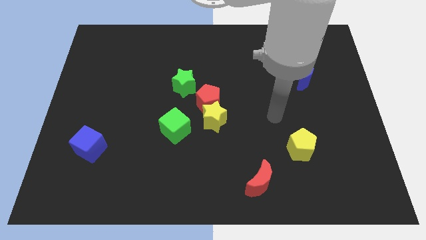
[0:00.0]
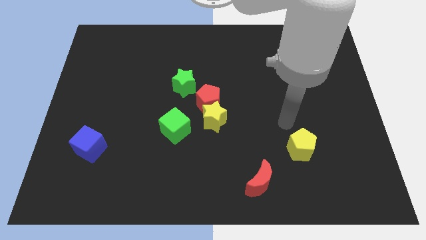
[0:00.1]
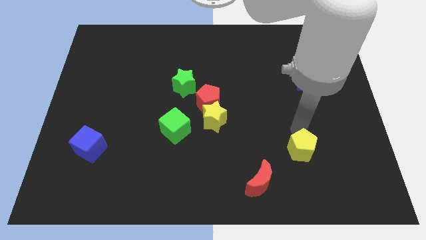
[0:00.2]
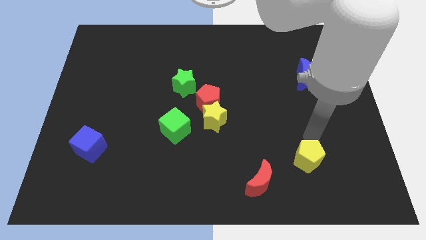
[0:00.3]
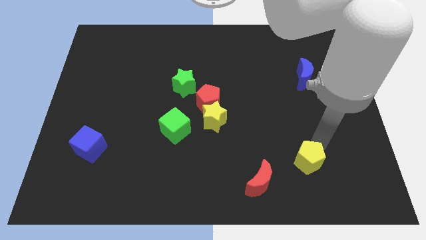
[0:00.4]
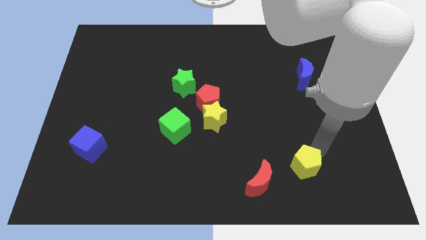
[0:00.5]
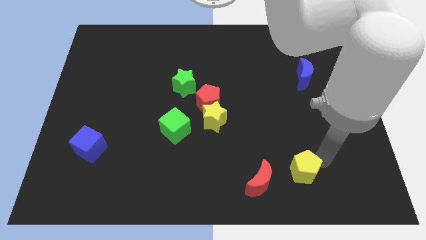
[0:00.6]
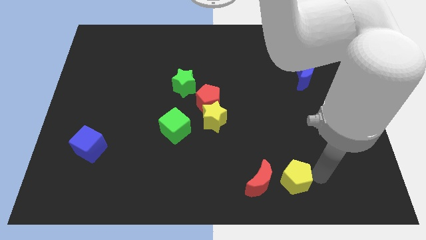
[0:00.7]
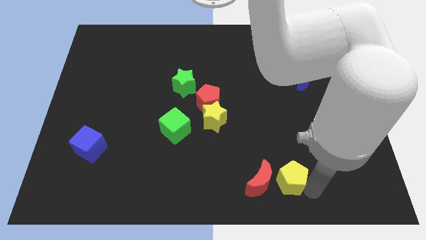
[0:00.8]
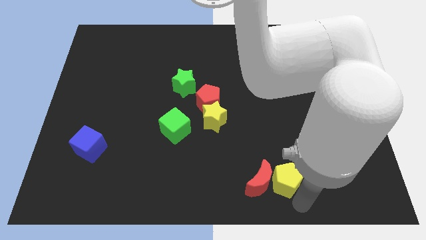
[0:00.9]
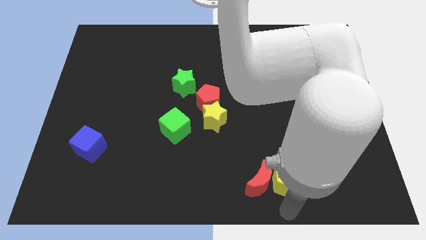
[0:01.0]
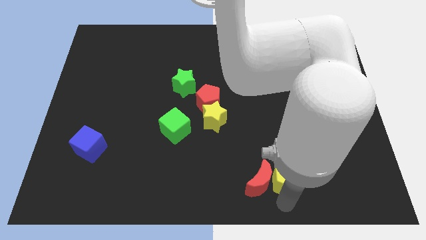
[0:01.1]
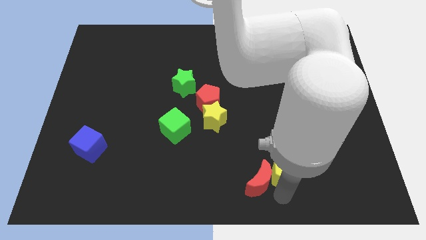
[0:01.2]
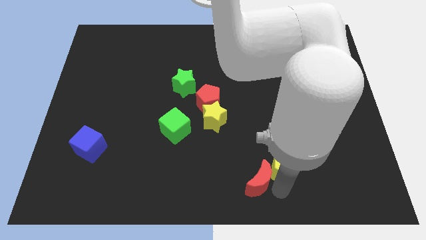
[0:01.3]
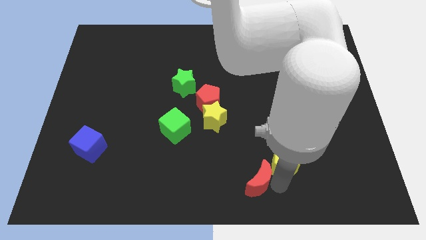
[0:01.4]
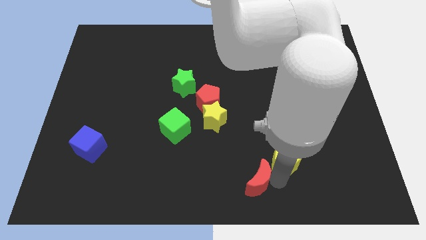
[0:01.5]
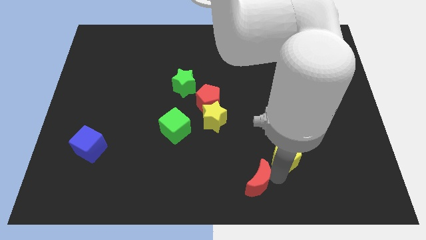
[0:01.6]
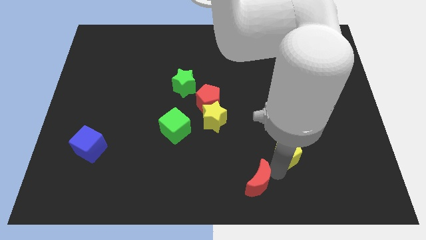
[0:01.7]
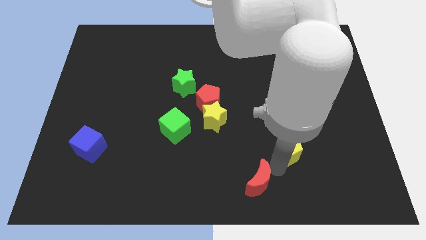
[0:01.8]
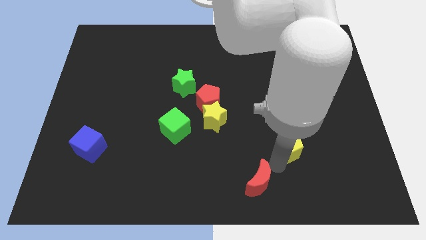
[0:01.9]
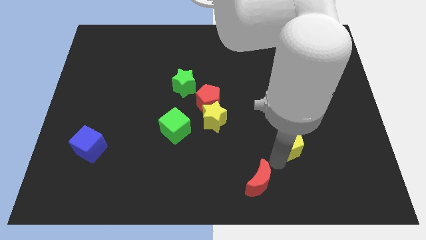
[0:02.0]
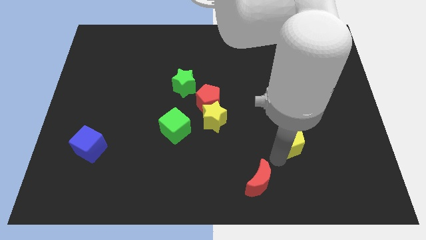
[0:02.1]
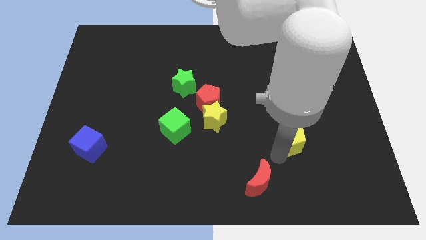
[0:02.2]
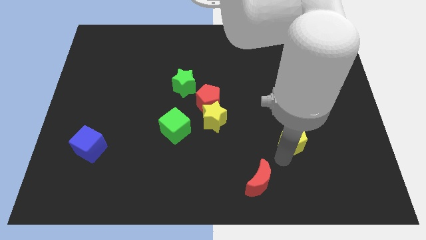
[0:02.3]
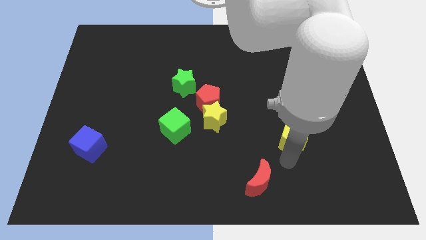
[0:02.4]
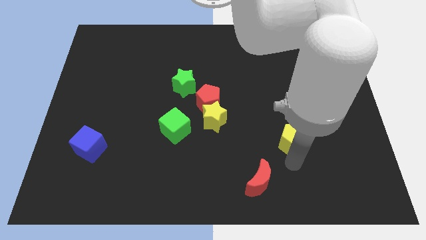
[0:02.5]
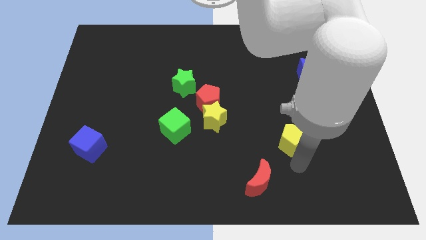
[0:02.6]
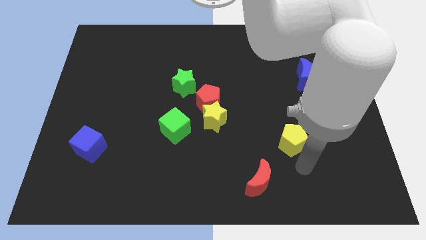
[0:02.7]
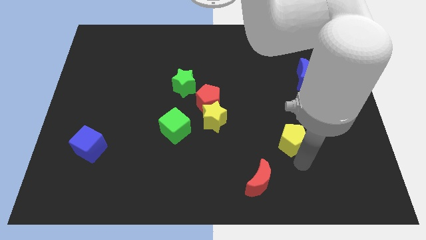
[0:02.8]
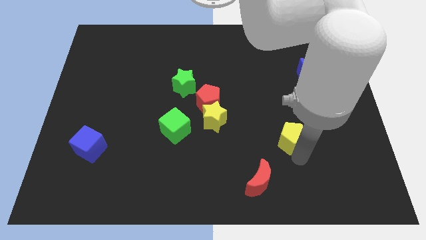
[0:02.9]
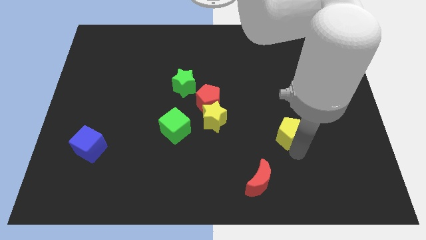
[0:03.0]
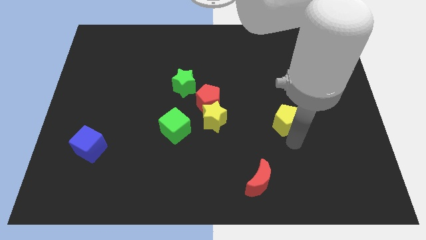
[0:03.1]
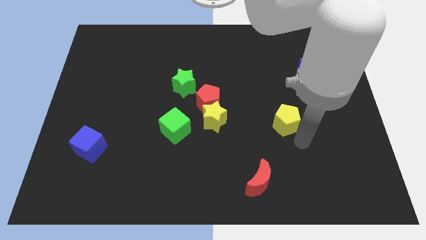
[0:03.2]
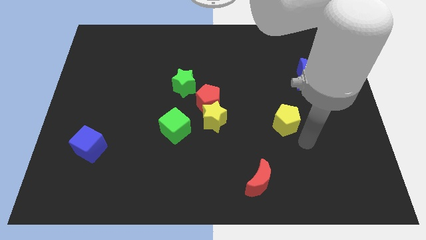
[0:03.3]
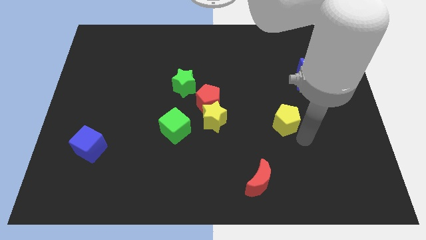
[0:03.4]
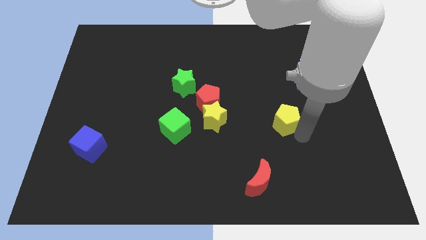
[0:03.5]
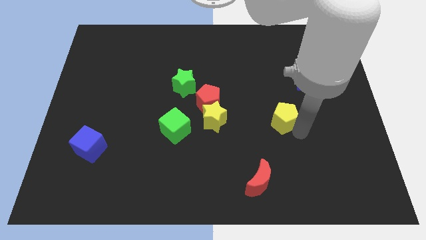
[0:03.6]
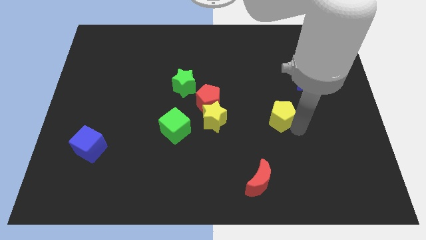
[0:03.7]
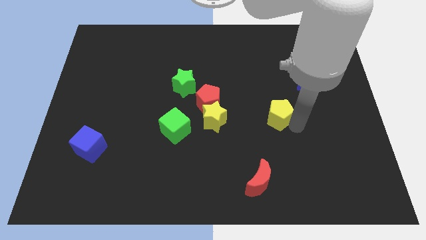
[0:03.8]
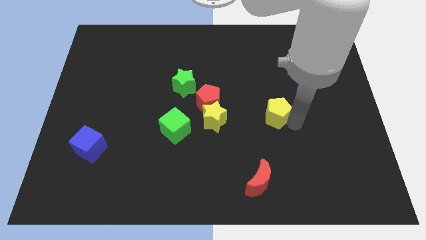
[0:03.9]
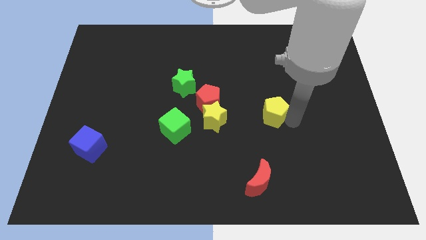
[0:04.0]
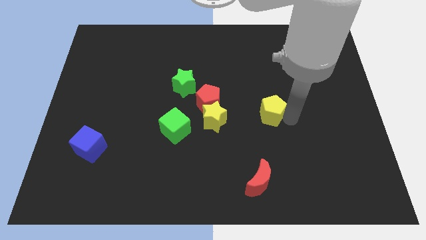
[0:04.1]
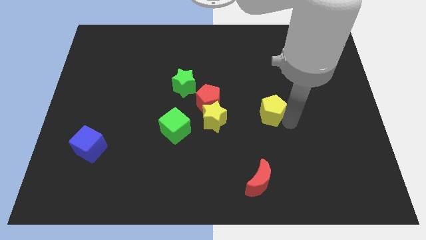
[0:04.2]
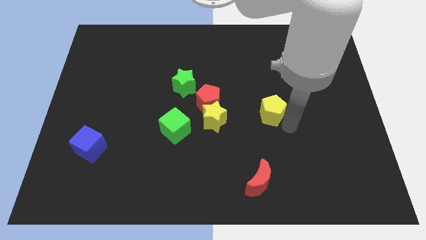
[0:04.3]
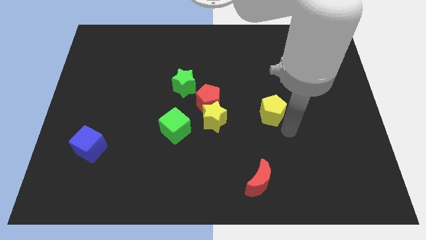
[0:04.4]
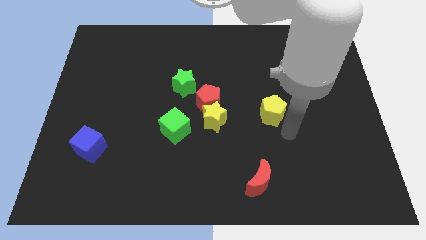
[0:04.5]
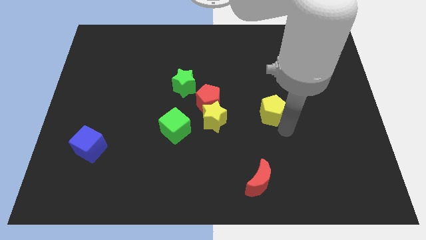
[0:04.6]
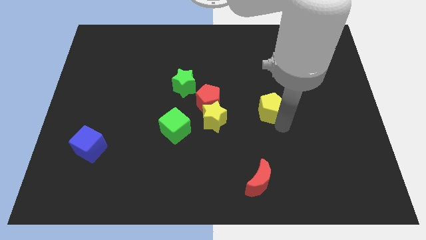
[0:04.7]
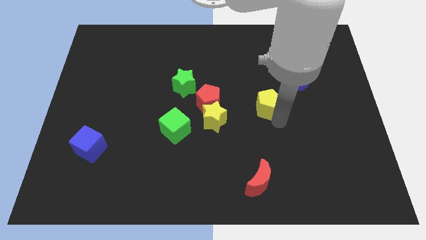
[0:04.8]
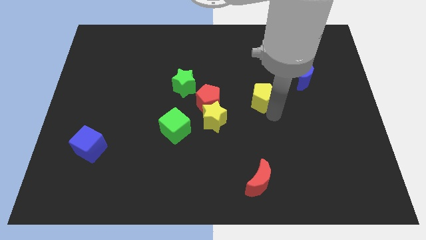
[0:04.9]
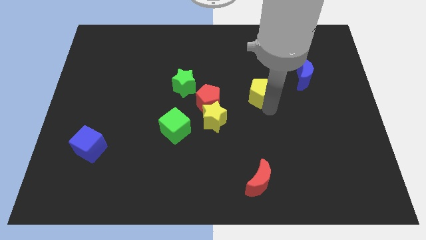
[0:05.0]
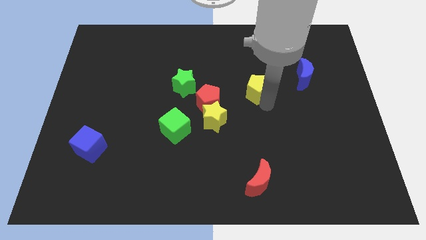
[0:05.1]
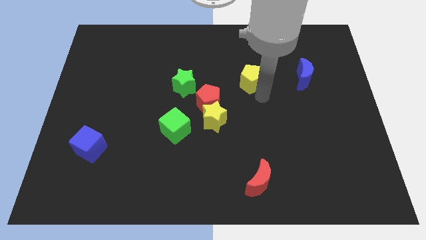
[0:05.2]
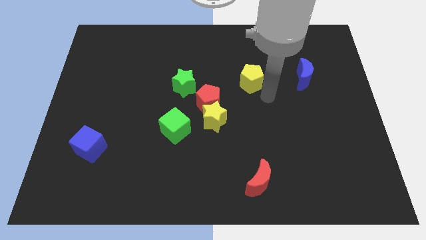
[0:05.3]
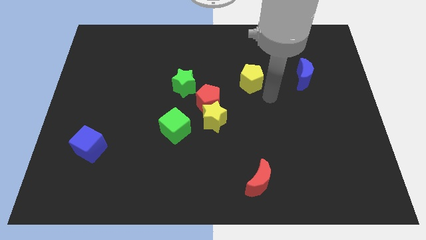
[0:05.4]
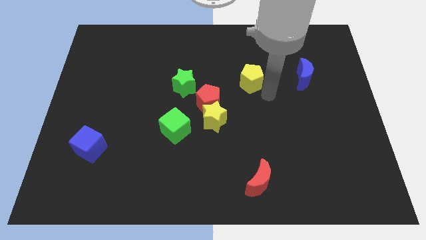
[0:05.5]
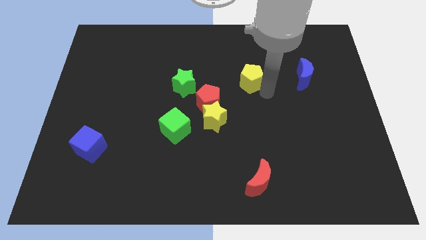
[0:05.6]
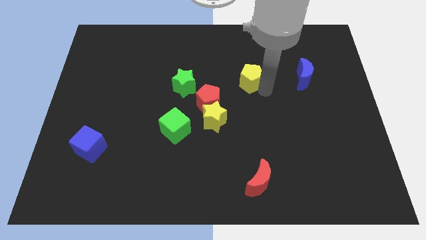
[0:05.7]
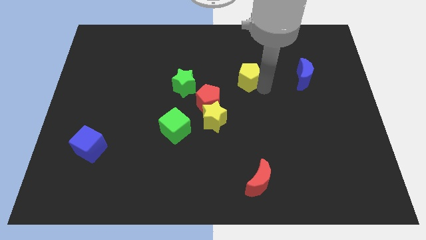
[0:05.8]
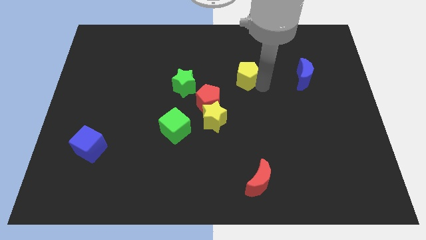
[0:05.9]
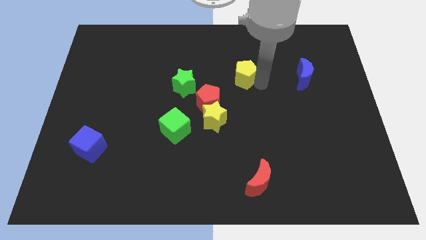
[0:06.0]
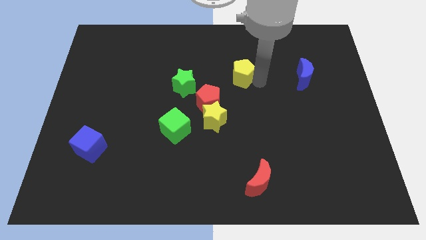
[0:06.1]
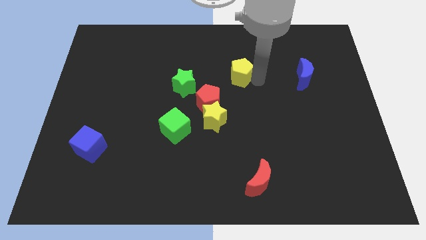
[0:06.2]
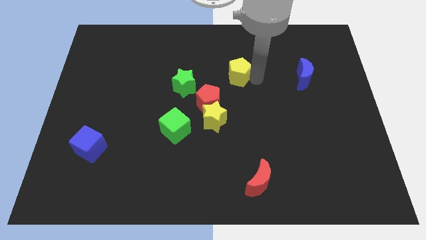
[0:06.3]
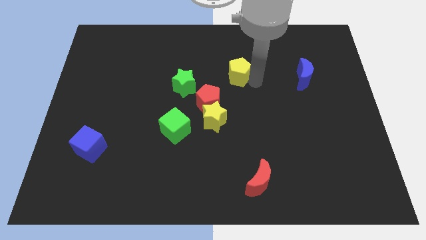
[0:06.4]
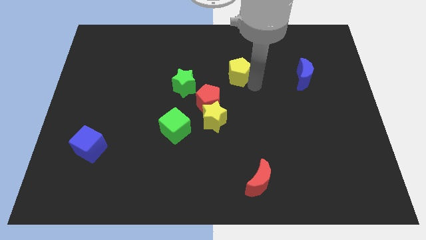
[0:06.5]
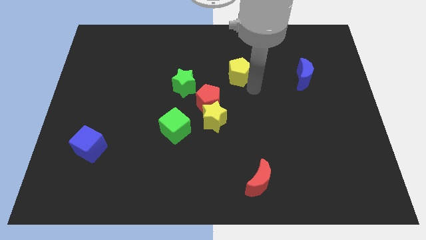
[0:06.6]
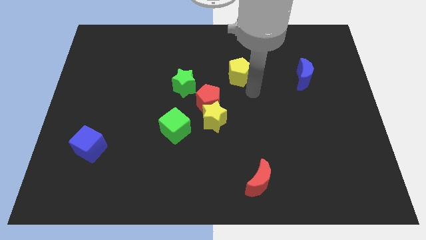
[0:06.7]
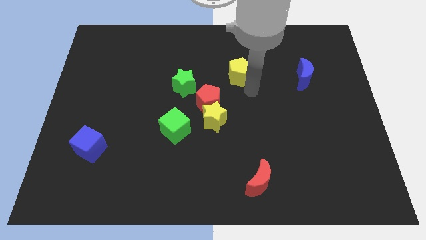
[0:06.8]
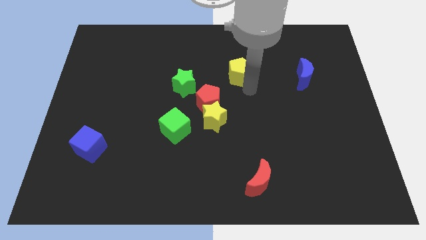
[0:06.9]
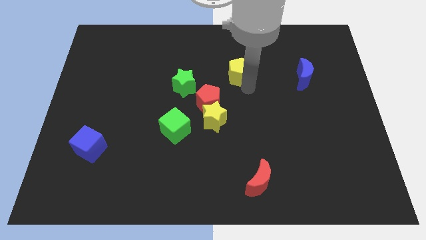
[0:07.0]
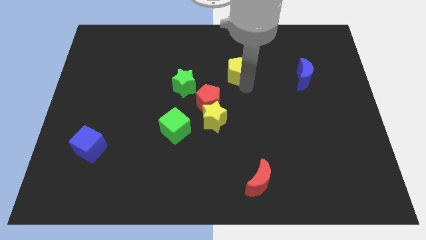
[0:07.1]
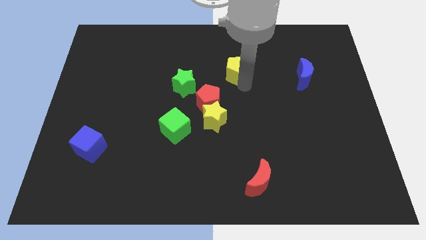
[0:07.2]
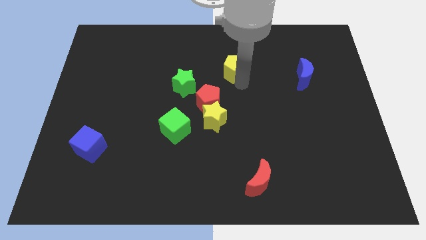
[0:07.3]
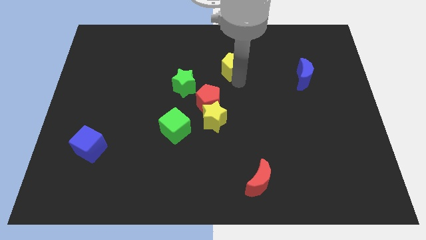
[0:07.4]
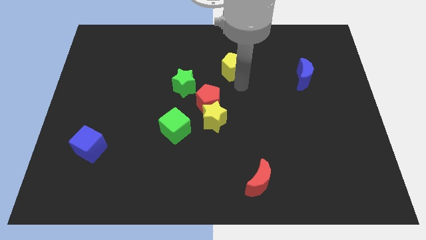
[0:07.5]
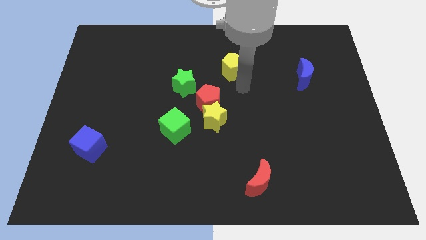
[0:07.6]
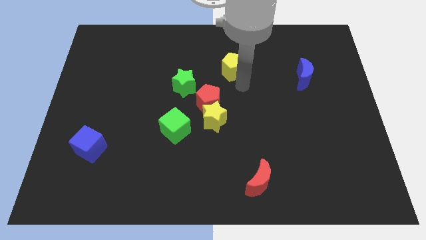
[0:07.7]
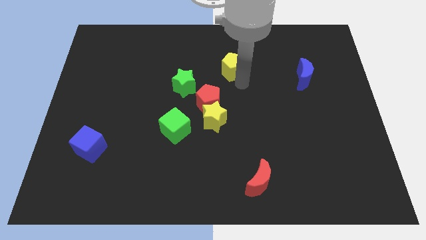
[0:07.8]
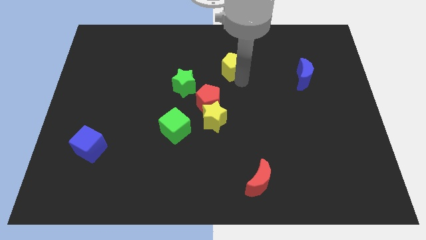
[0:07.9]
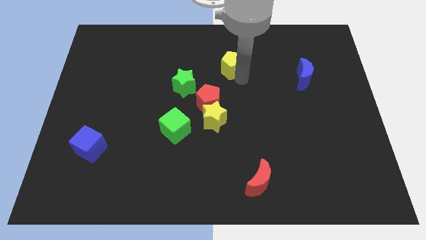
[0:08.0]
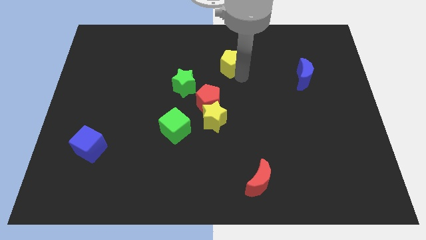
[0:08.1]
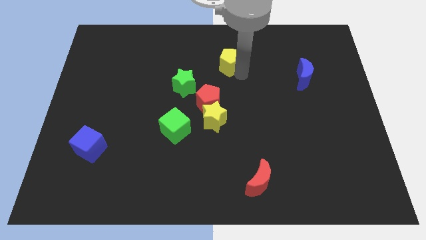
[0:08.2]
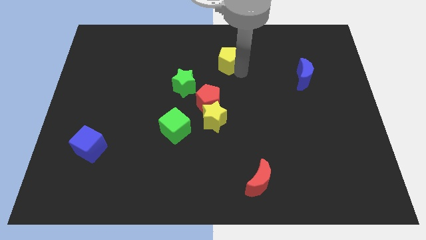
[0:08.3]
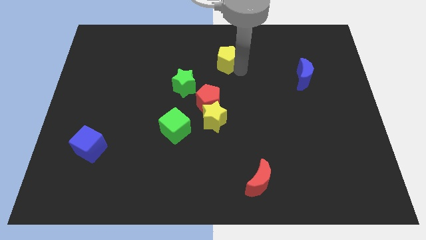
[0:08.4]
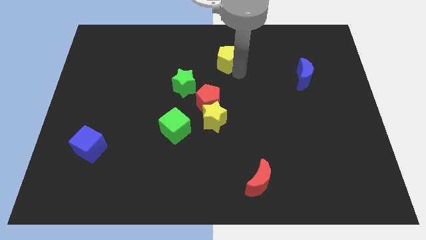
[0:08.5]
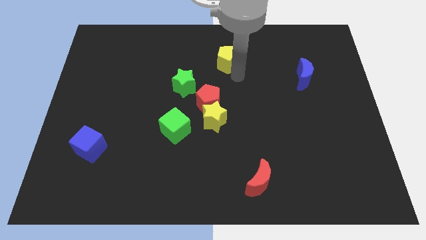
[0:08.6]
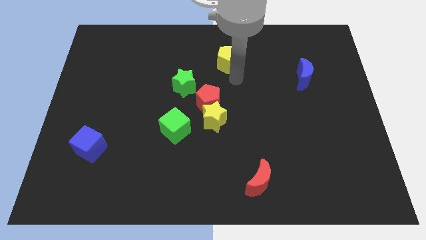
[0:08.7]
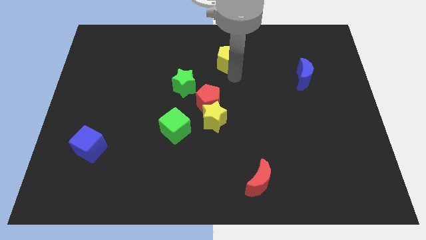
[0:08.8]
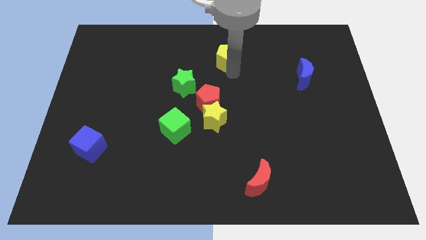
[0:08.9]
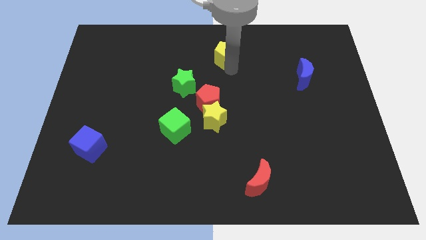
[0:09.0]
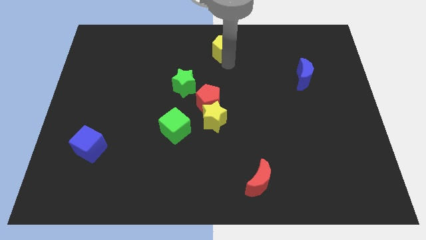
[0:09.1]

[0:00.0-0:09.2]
put the yellow pentagon to the towards your base
